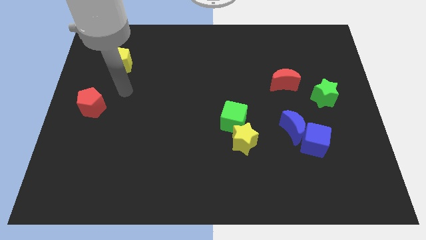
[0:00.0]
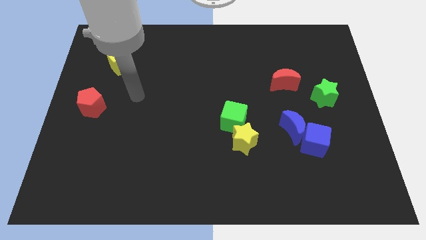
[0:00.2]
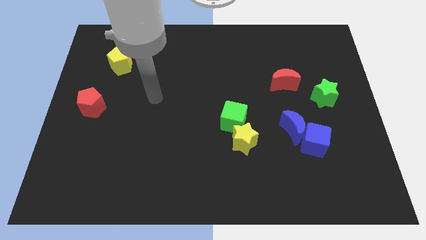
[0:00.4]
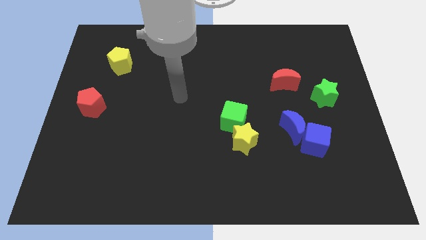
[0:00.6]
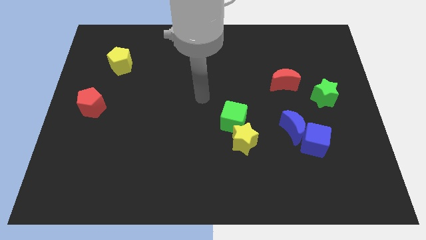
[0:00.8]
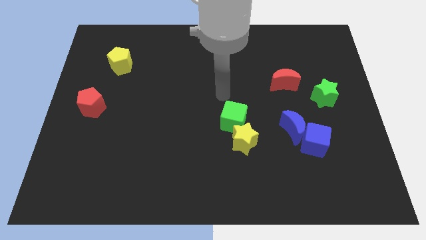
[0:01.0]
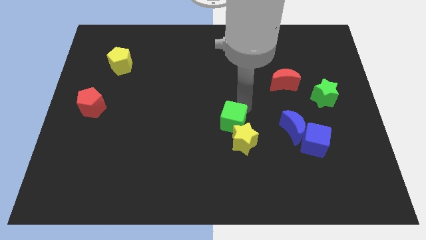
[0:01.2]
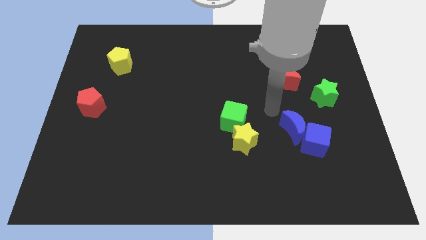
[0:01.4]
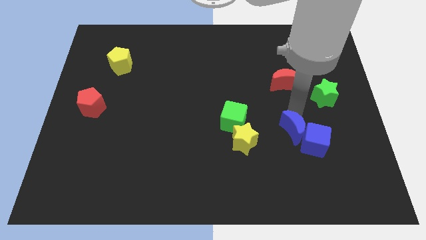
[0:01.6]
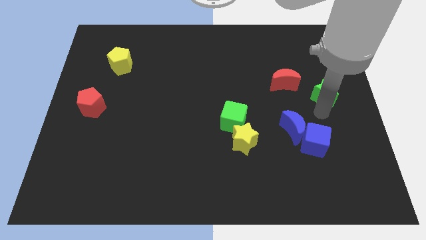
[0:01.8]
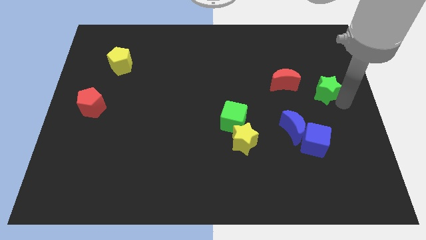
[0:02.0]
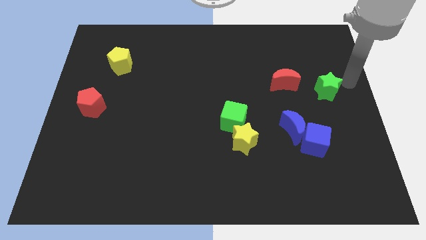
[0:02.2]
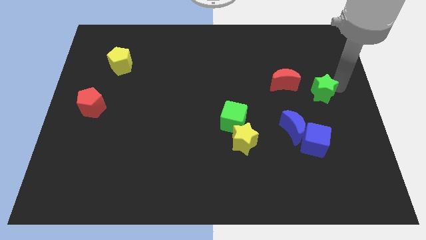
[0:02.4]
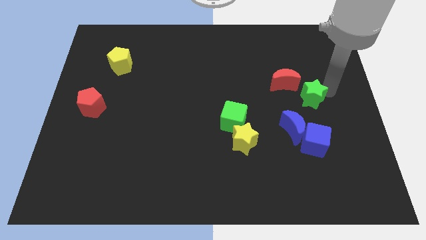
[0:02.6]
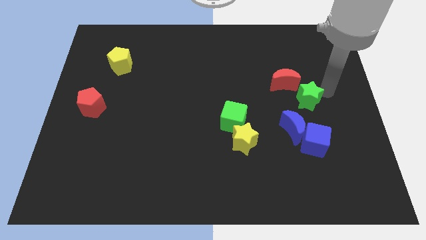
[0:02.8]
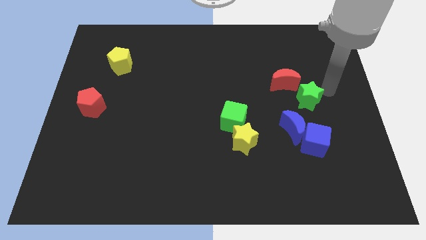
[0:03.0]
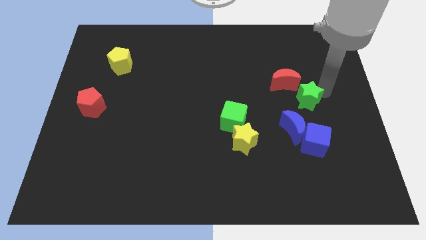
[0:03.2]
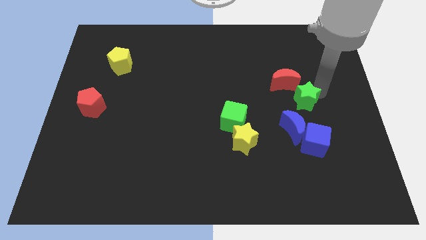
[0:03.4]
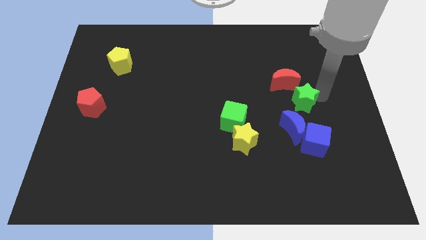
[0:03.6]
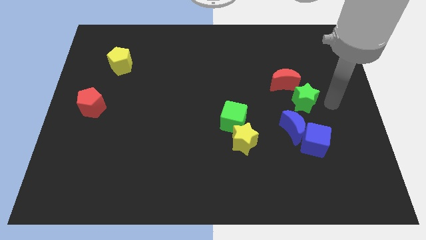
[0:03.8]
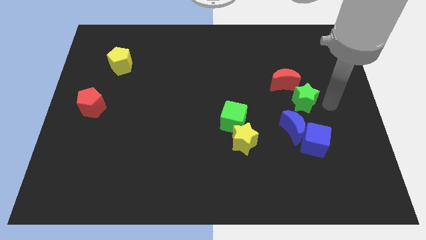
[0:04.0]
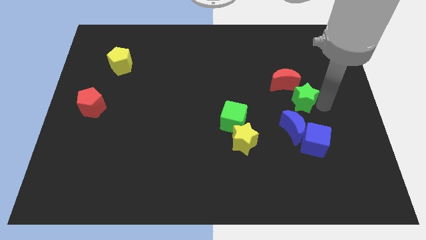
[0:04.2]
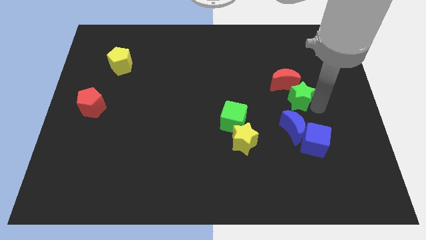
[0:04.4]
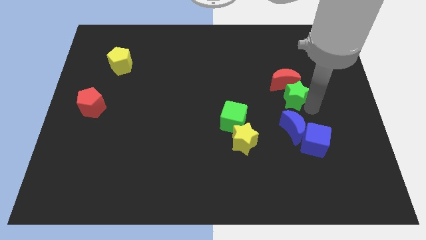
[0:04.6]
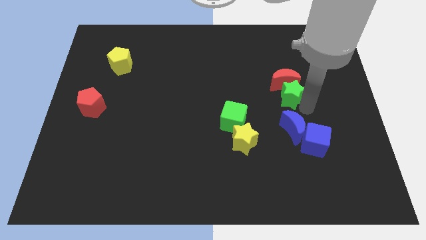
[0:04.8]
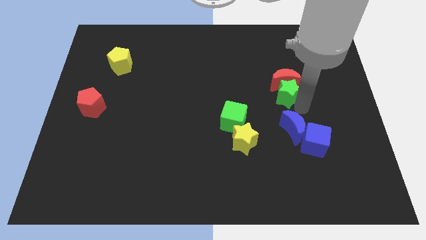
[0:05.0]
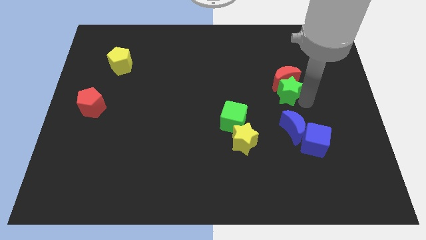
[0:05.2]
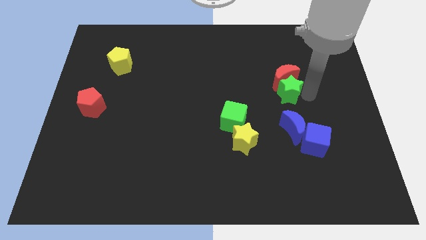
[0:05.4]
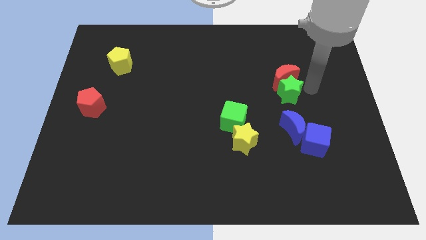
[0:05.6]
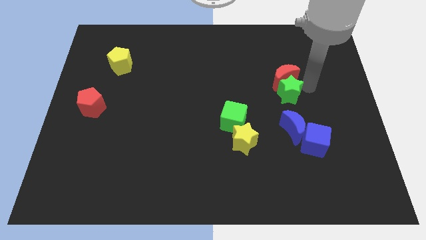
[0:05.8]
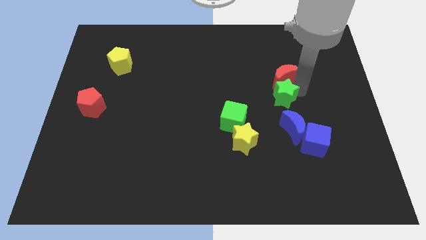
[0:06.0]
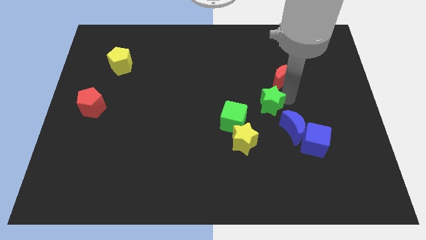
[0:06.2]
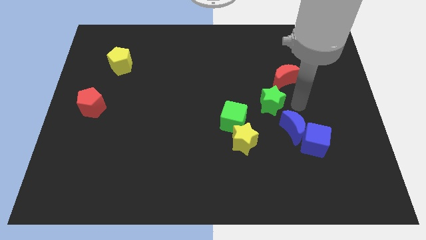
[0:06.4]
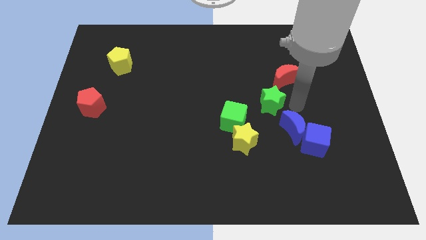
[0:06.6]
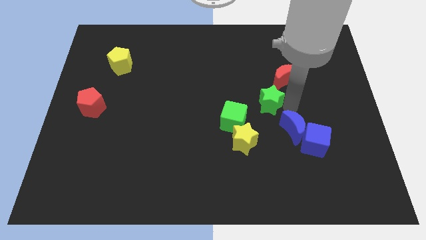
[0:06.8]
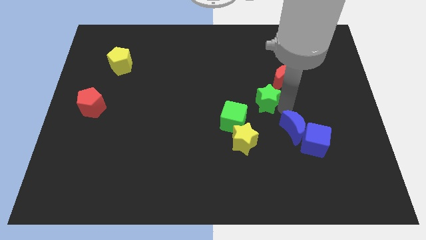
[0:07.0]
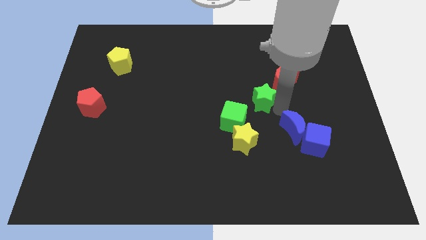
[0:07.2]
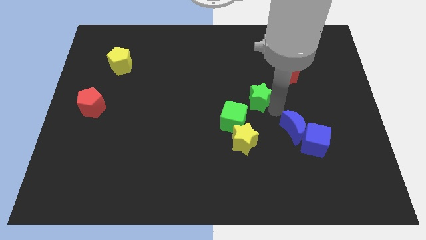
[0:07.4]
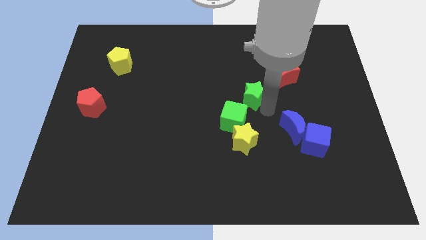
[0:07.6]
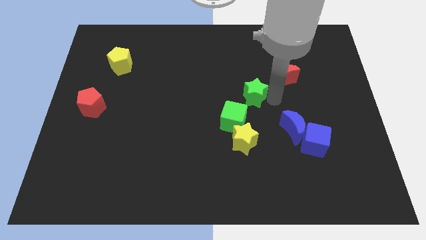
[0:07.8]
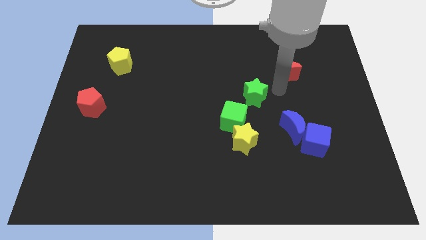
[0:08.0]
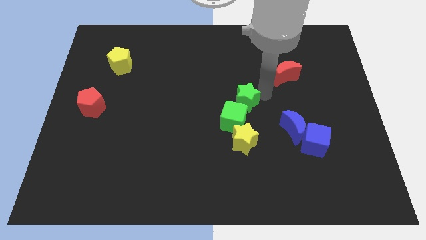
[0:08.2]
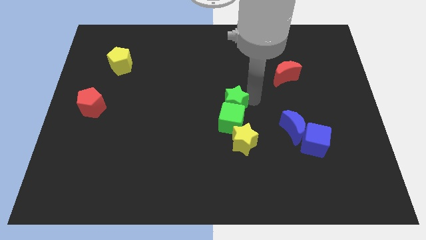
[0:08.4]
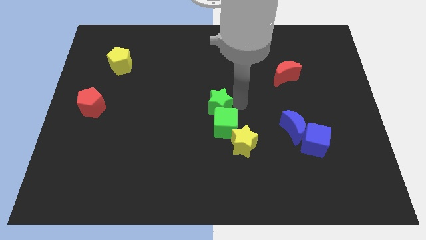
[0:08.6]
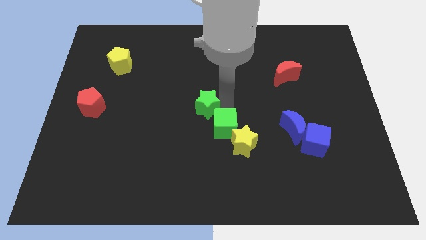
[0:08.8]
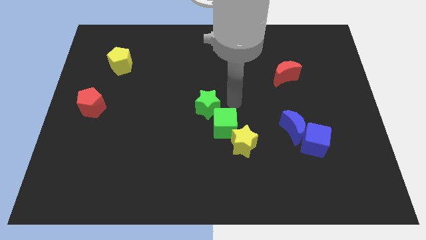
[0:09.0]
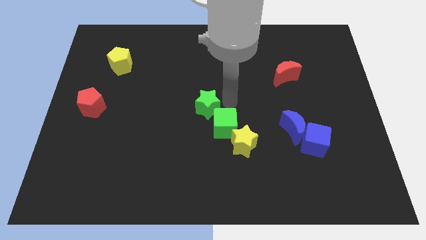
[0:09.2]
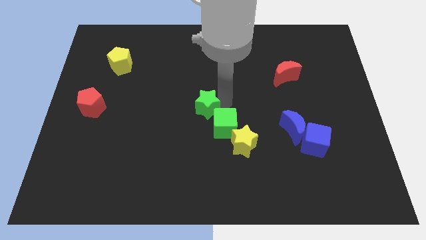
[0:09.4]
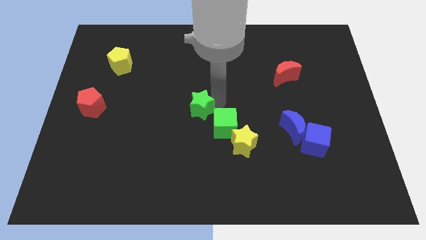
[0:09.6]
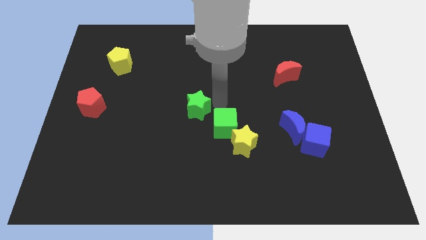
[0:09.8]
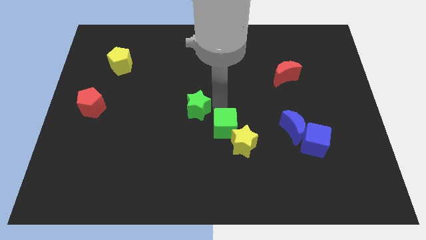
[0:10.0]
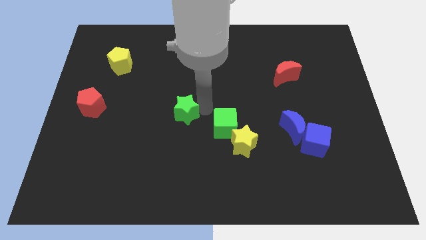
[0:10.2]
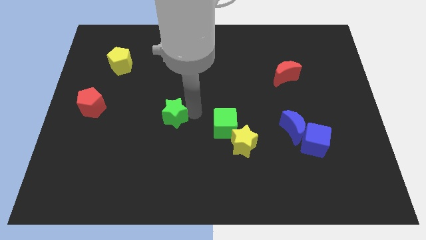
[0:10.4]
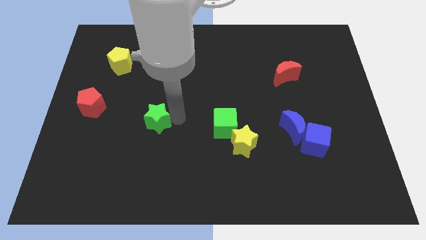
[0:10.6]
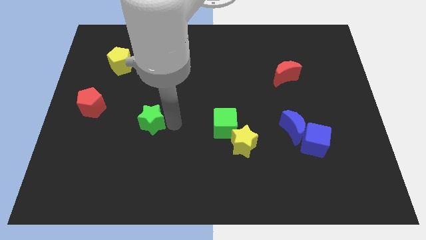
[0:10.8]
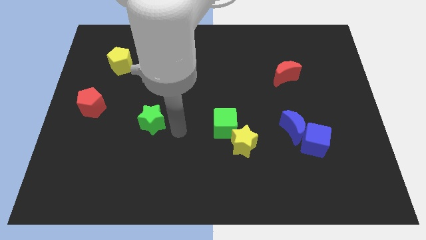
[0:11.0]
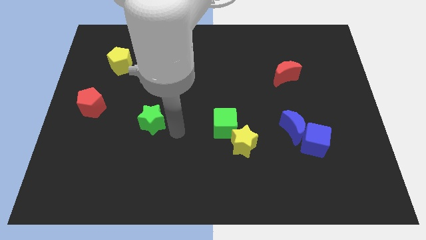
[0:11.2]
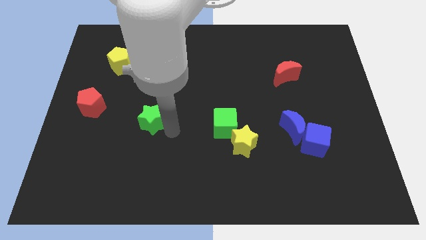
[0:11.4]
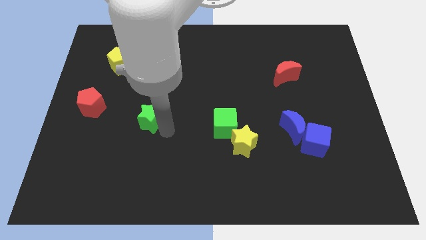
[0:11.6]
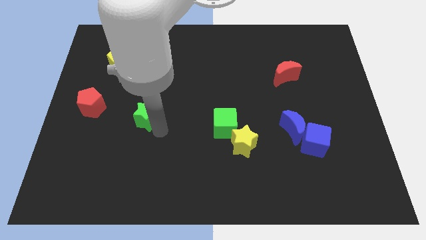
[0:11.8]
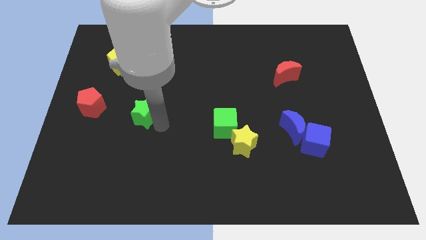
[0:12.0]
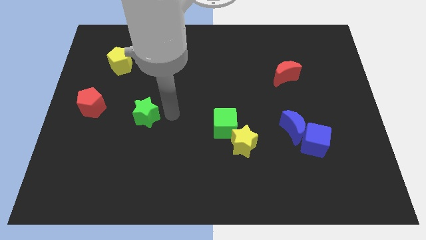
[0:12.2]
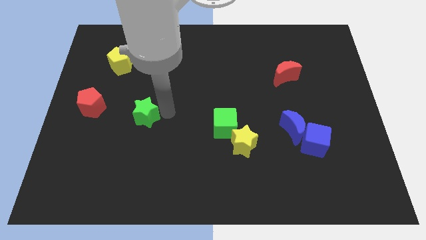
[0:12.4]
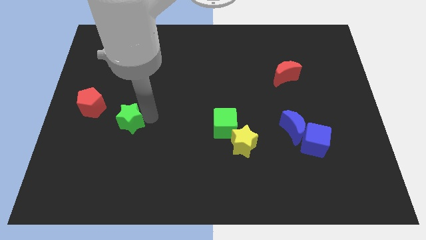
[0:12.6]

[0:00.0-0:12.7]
put the green star diagonally down and to the right of the red pentagon

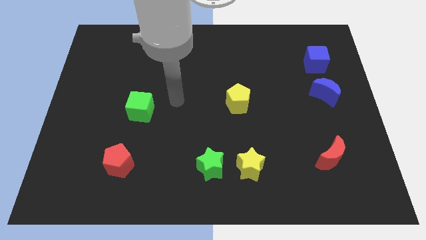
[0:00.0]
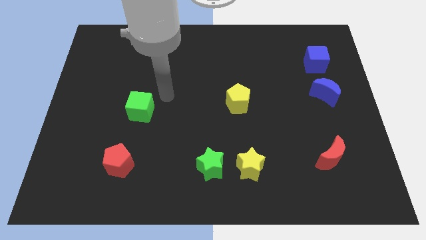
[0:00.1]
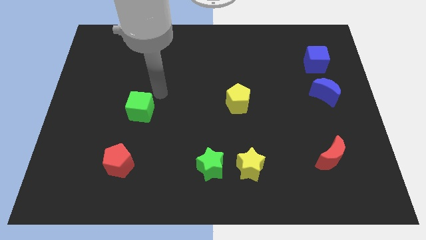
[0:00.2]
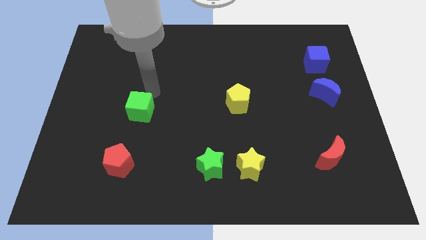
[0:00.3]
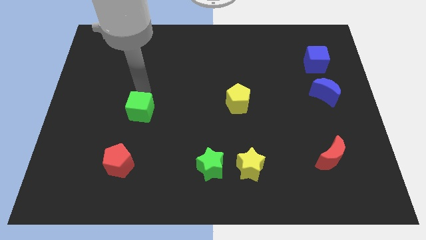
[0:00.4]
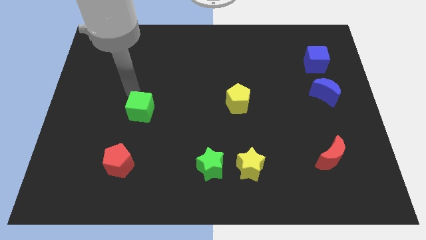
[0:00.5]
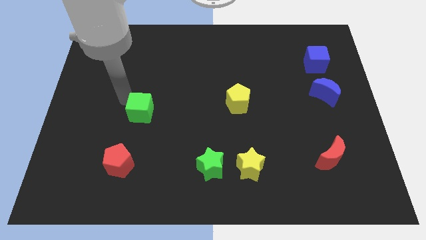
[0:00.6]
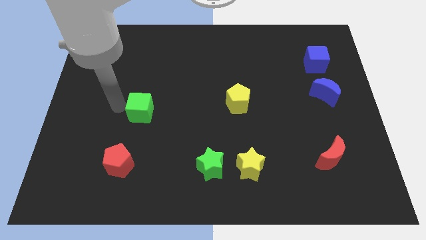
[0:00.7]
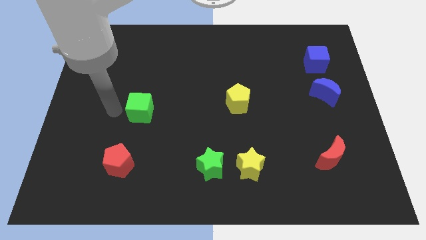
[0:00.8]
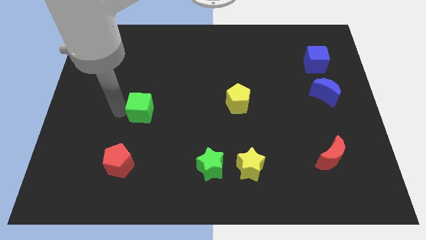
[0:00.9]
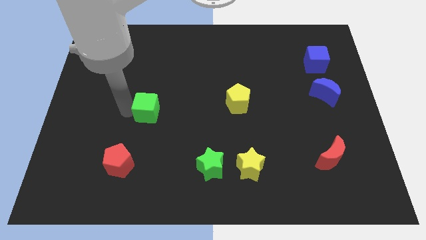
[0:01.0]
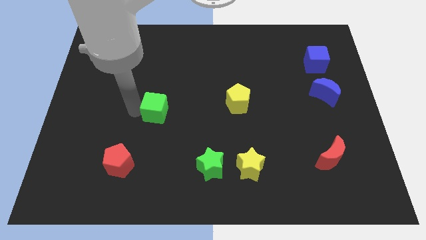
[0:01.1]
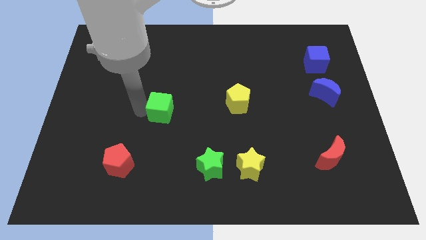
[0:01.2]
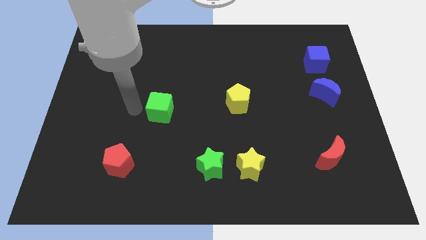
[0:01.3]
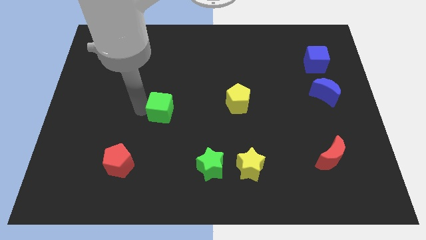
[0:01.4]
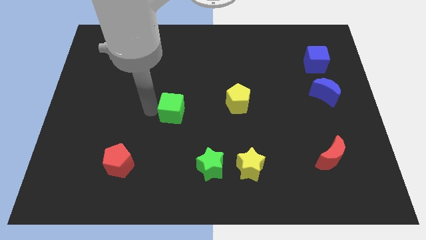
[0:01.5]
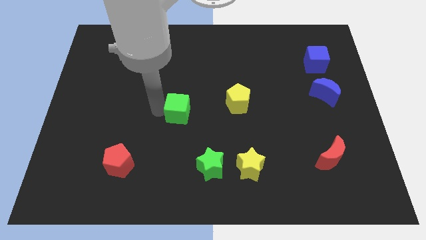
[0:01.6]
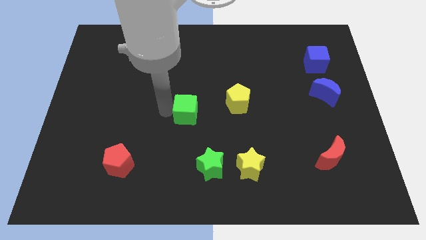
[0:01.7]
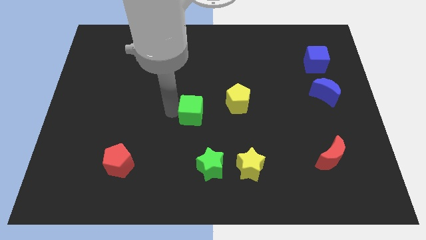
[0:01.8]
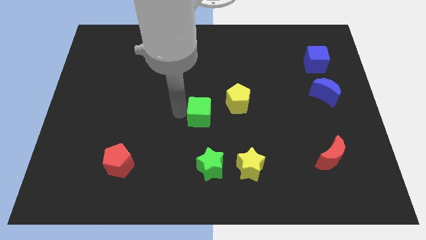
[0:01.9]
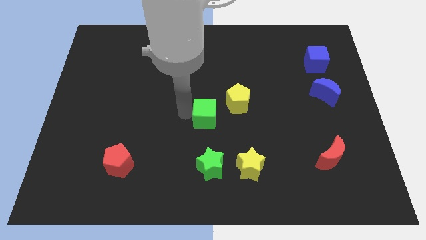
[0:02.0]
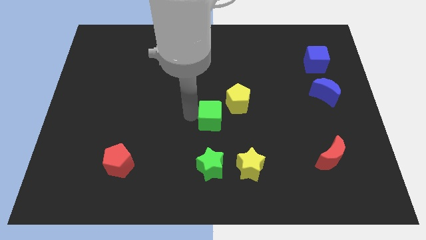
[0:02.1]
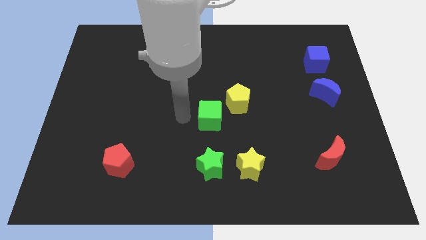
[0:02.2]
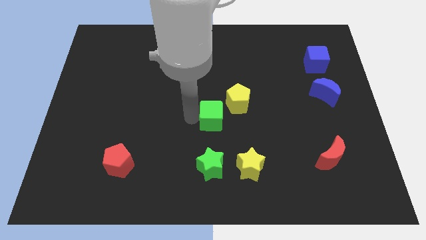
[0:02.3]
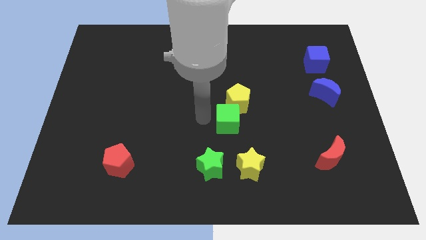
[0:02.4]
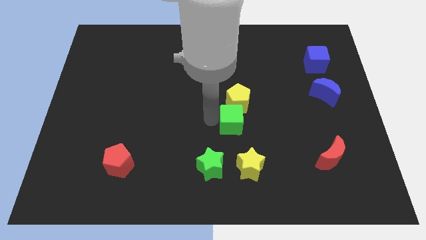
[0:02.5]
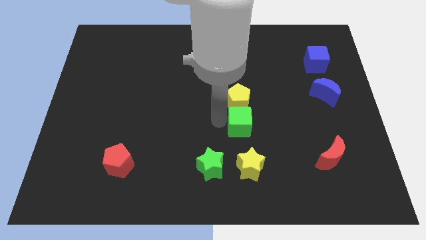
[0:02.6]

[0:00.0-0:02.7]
put the green cube to the bottom right side of the yellow pentagon
